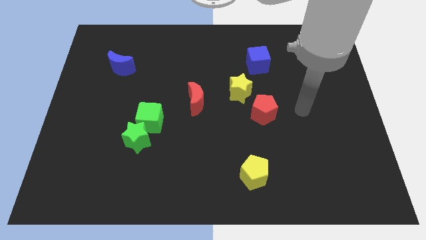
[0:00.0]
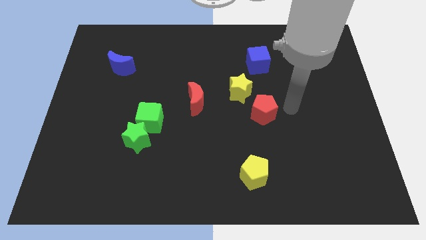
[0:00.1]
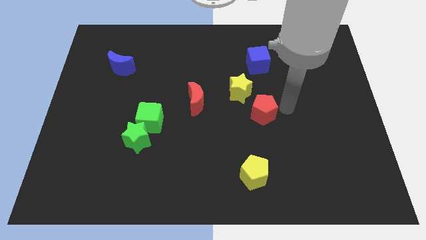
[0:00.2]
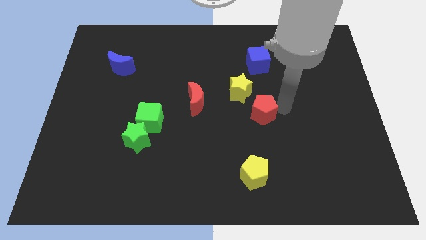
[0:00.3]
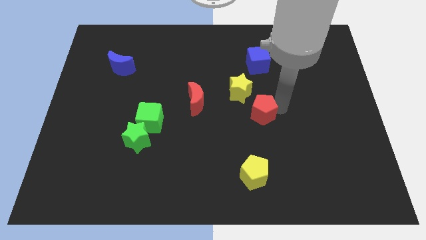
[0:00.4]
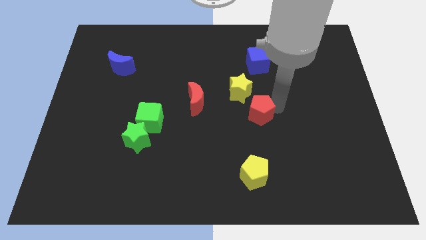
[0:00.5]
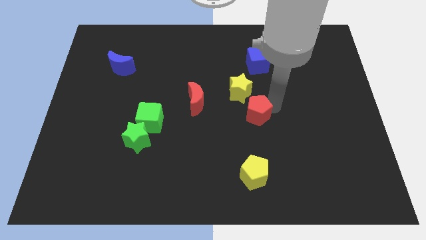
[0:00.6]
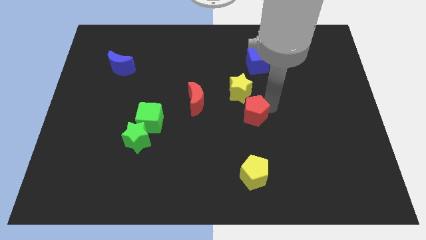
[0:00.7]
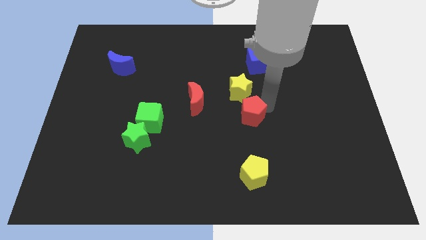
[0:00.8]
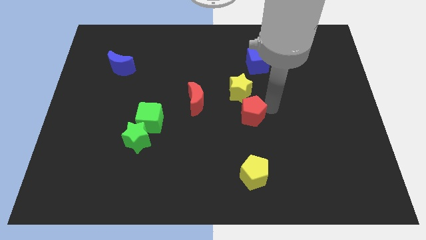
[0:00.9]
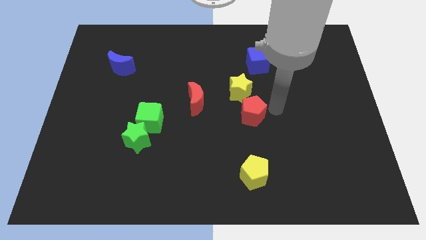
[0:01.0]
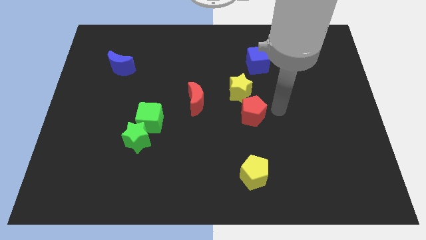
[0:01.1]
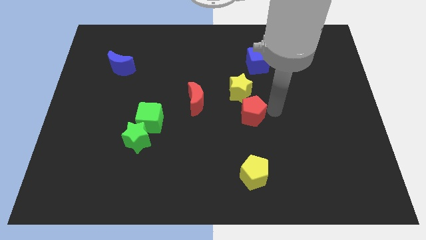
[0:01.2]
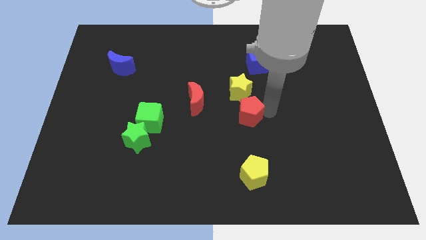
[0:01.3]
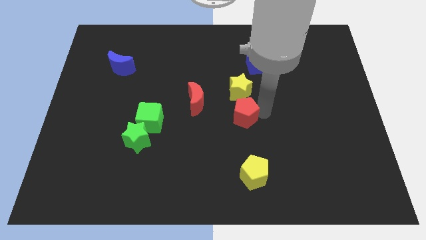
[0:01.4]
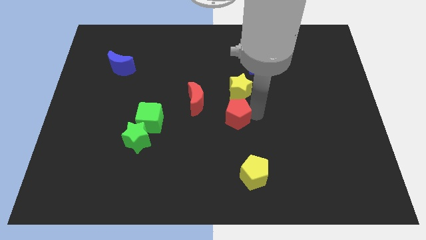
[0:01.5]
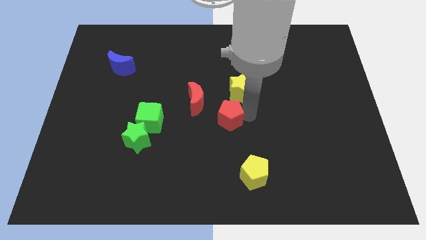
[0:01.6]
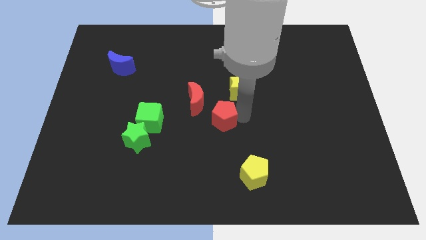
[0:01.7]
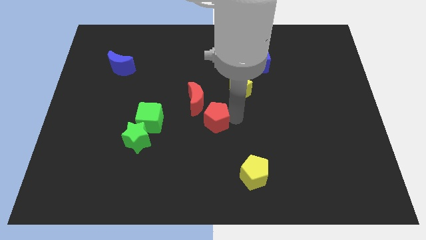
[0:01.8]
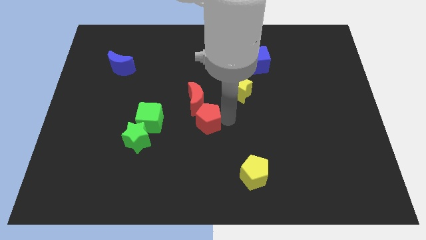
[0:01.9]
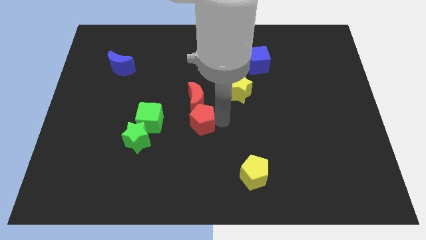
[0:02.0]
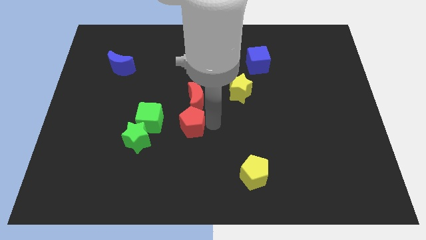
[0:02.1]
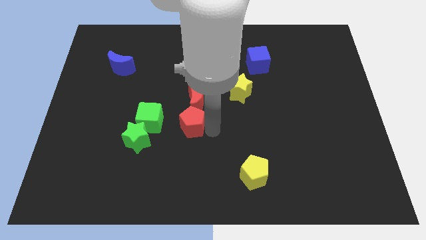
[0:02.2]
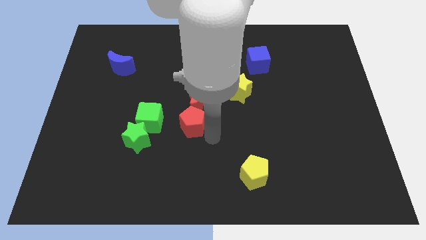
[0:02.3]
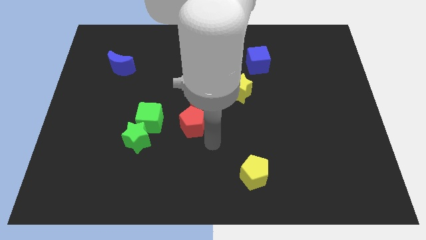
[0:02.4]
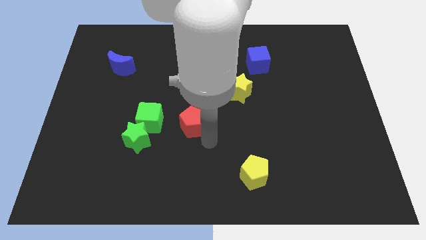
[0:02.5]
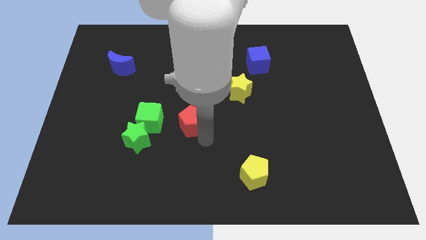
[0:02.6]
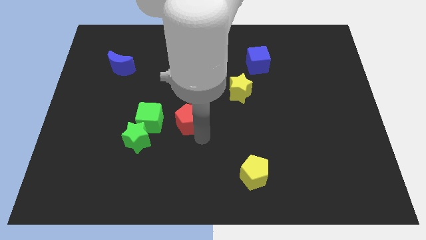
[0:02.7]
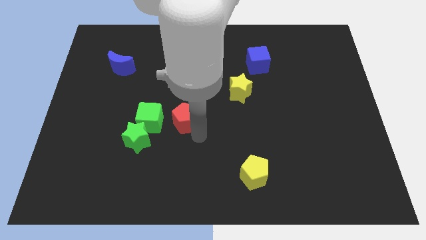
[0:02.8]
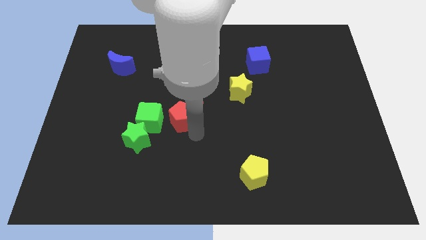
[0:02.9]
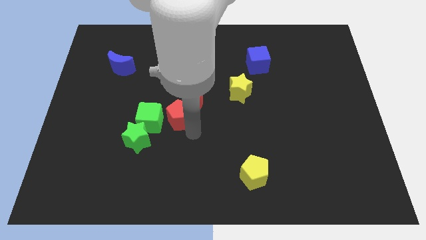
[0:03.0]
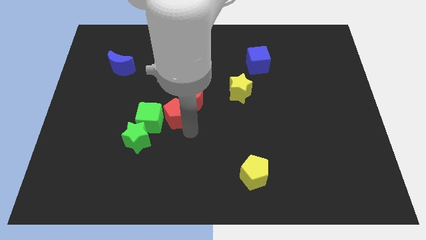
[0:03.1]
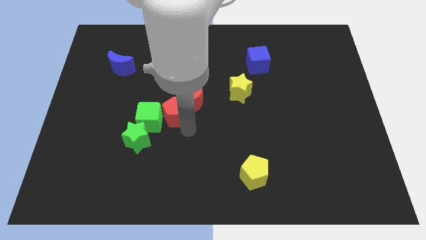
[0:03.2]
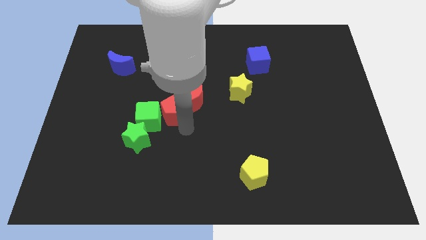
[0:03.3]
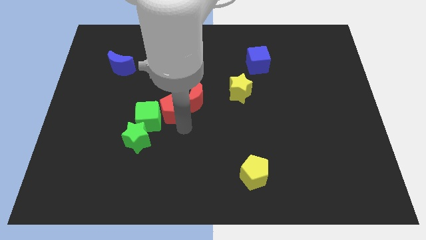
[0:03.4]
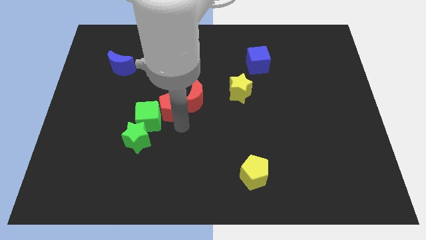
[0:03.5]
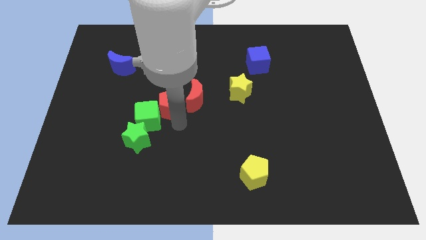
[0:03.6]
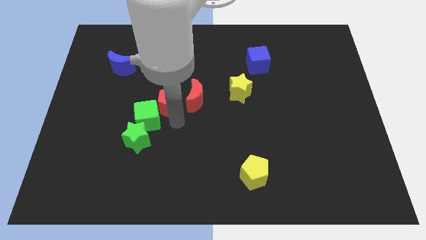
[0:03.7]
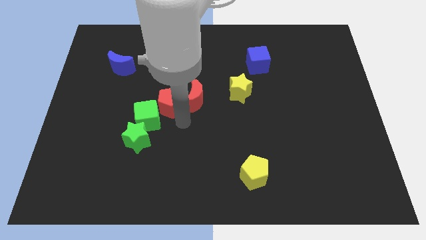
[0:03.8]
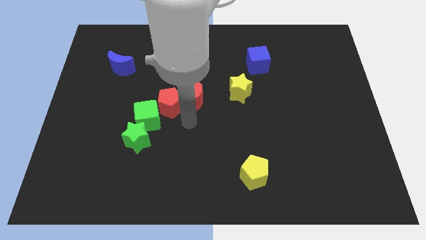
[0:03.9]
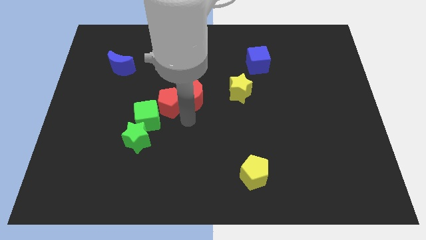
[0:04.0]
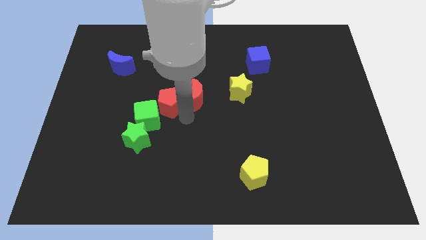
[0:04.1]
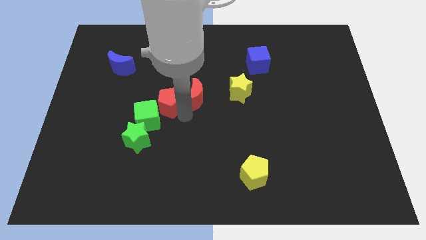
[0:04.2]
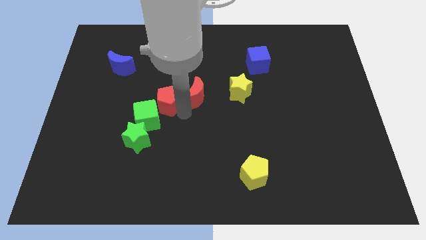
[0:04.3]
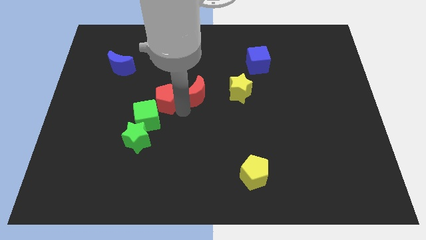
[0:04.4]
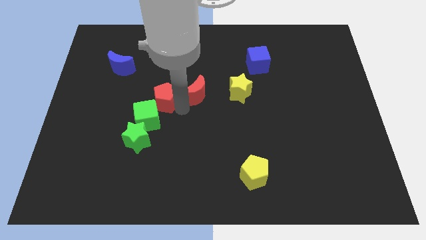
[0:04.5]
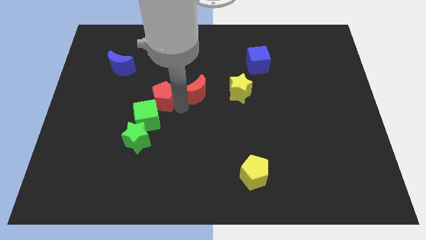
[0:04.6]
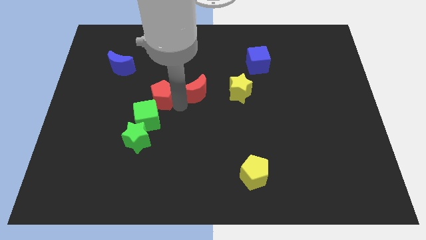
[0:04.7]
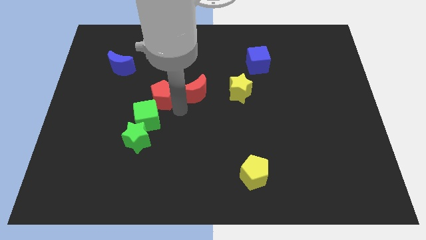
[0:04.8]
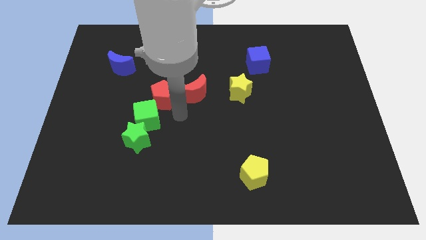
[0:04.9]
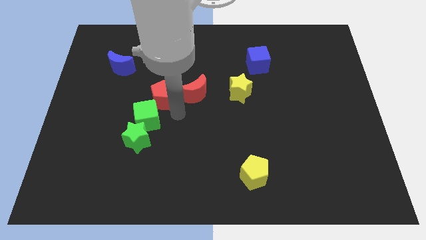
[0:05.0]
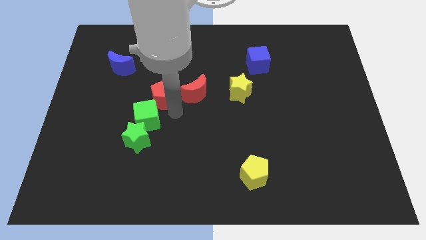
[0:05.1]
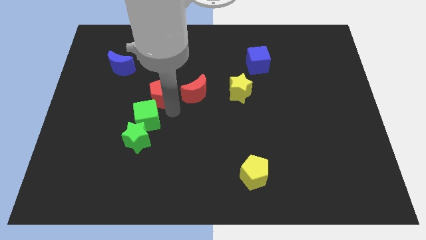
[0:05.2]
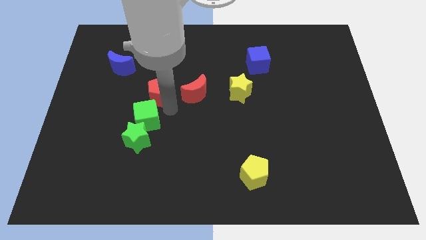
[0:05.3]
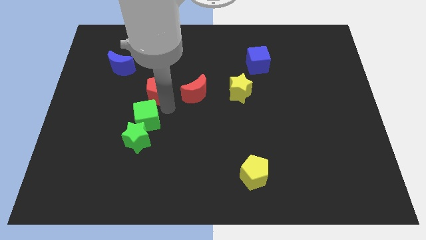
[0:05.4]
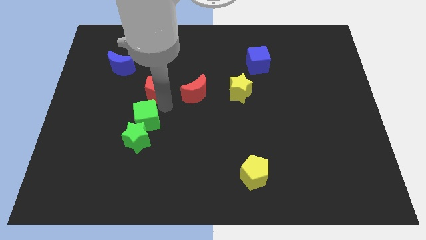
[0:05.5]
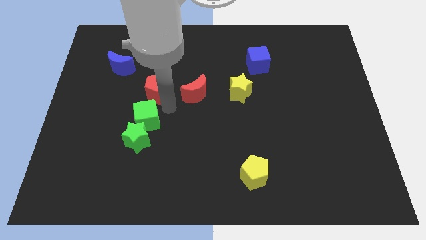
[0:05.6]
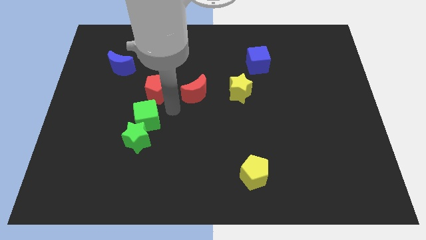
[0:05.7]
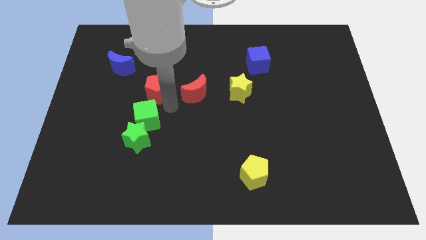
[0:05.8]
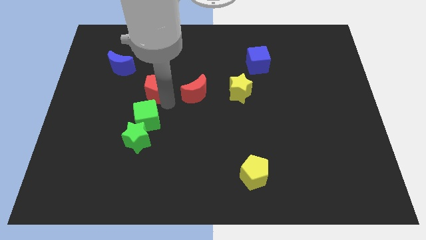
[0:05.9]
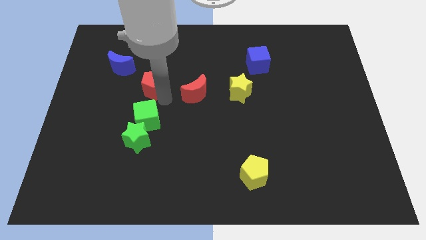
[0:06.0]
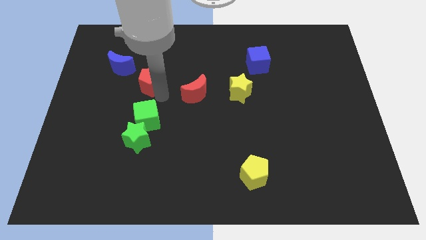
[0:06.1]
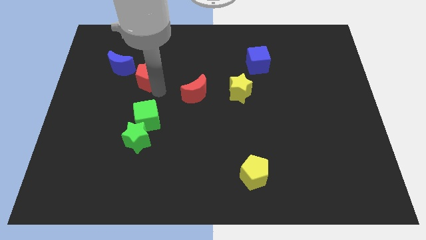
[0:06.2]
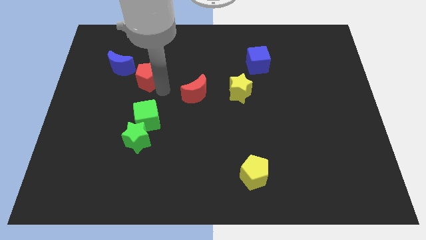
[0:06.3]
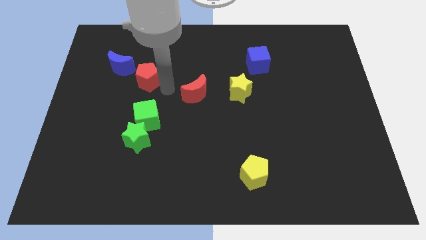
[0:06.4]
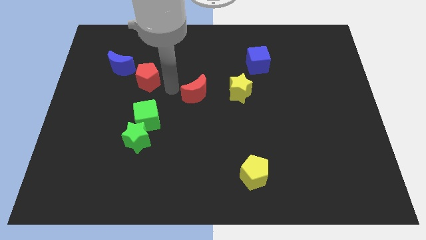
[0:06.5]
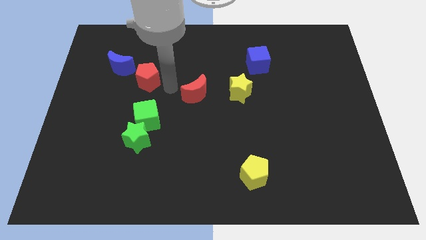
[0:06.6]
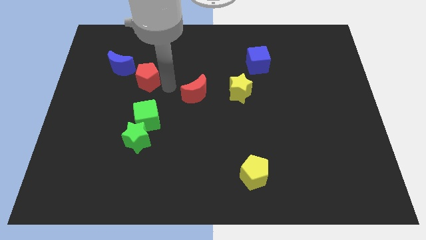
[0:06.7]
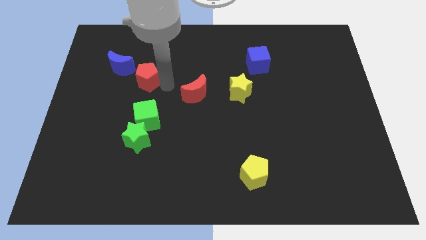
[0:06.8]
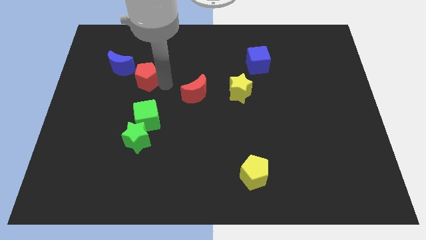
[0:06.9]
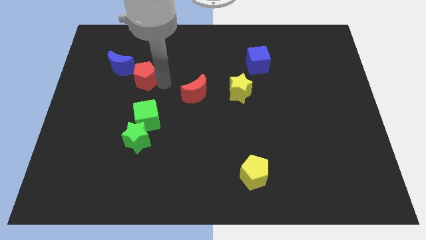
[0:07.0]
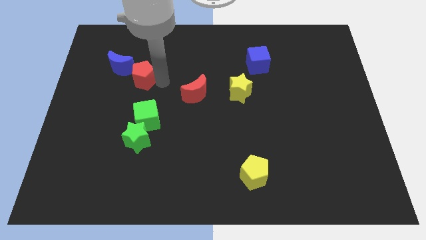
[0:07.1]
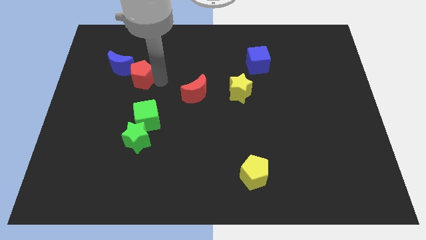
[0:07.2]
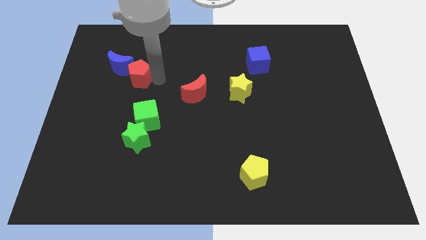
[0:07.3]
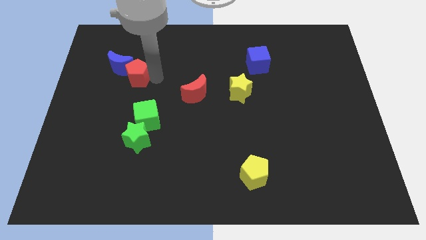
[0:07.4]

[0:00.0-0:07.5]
move the red pentagon close to the blue moon
